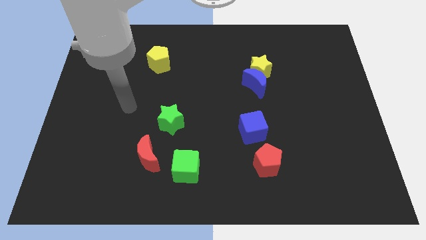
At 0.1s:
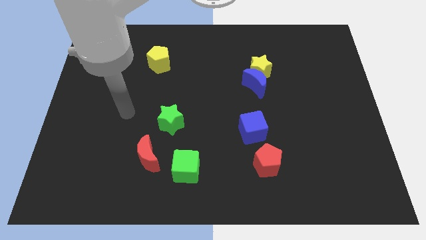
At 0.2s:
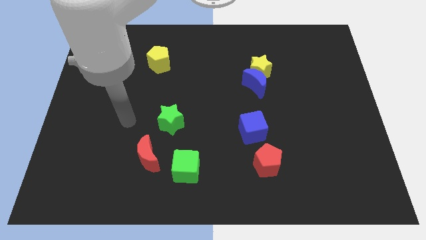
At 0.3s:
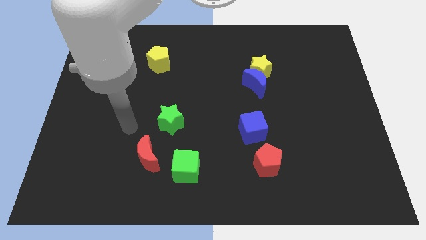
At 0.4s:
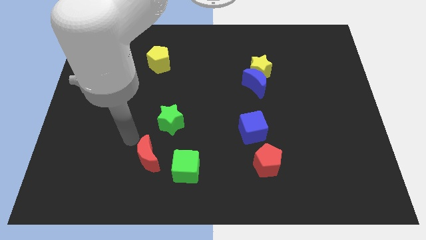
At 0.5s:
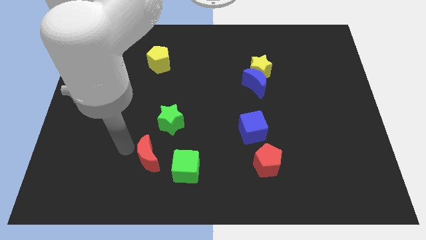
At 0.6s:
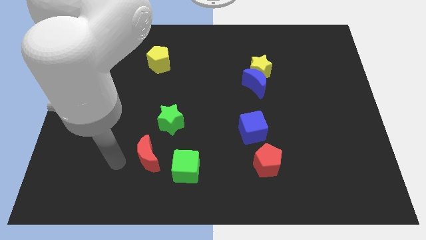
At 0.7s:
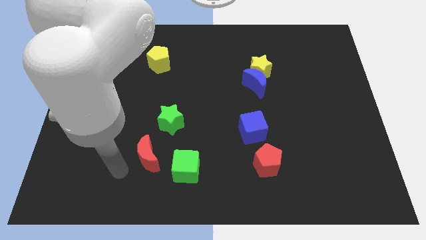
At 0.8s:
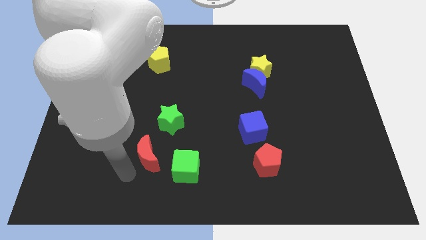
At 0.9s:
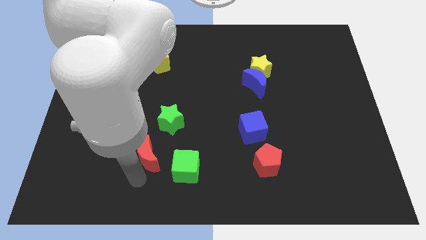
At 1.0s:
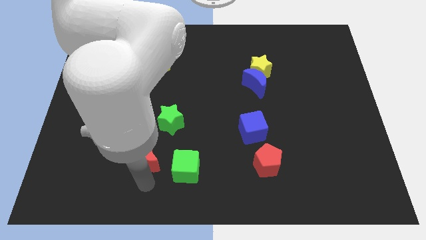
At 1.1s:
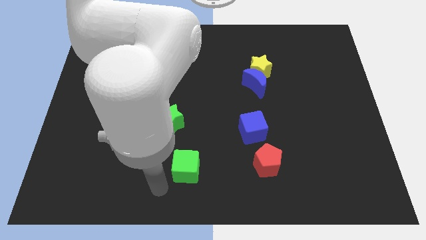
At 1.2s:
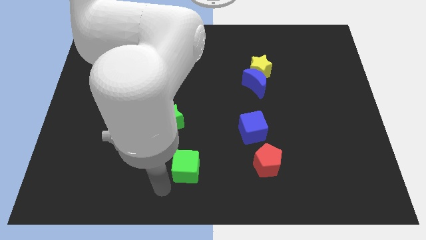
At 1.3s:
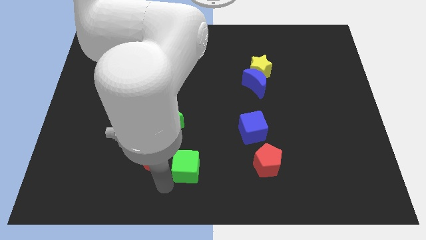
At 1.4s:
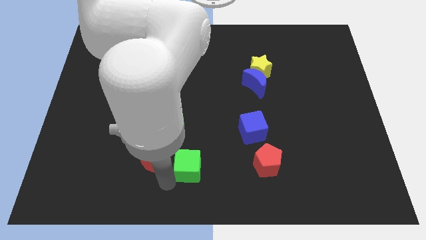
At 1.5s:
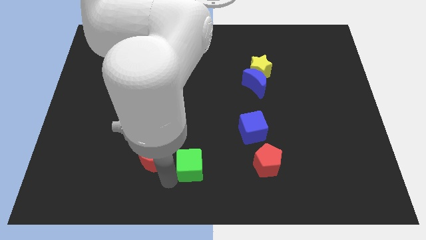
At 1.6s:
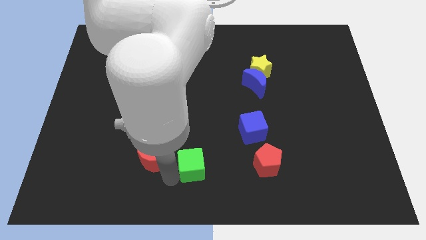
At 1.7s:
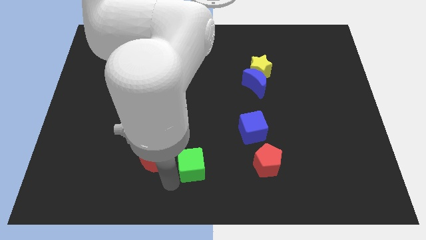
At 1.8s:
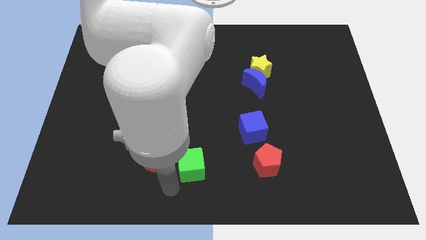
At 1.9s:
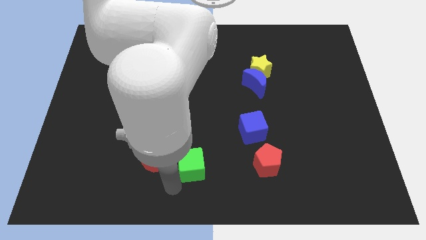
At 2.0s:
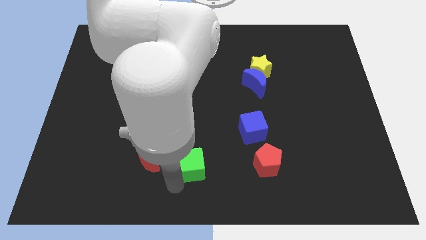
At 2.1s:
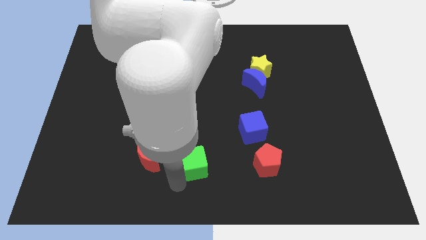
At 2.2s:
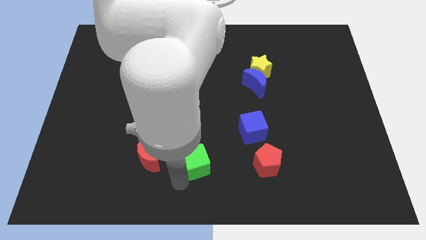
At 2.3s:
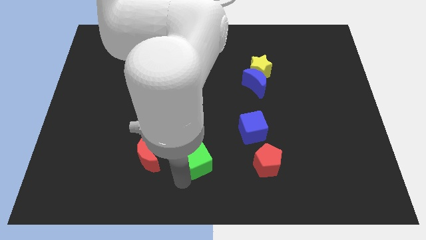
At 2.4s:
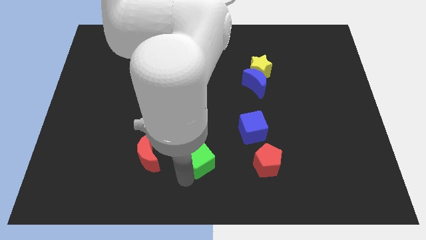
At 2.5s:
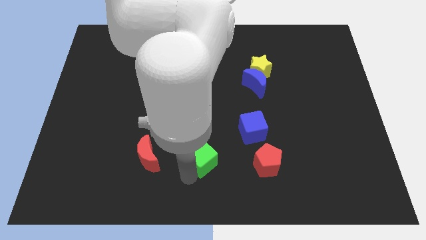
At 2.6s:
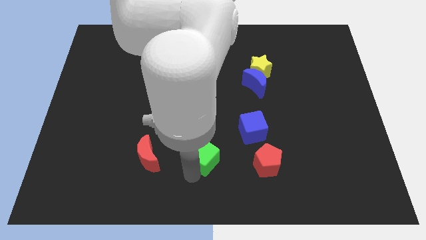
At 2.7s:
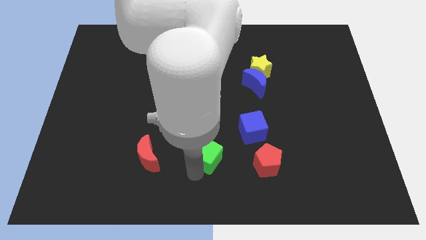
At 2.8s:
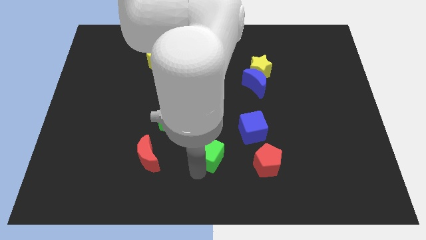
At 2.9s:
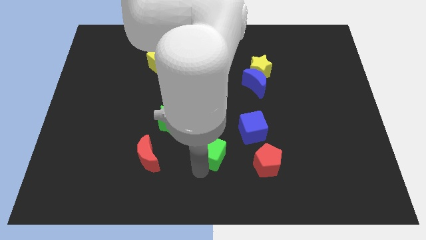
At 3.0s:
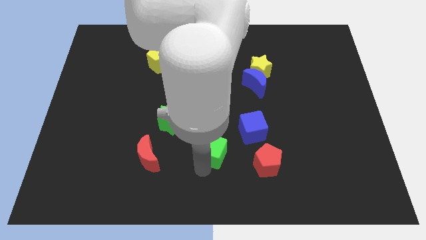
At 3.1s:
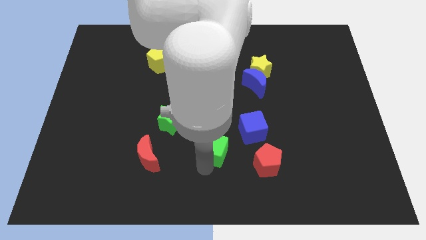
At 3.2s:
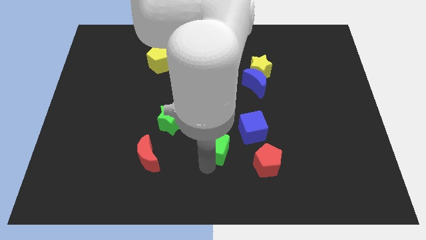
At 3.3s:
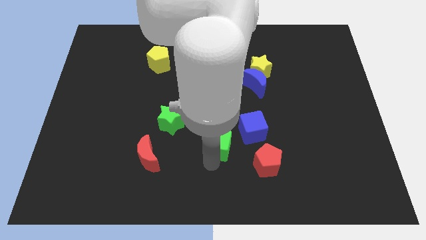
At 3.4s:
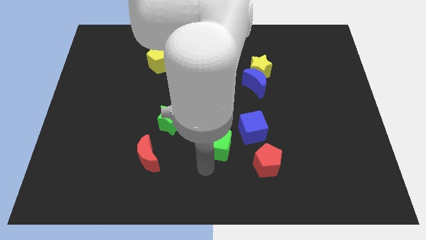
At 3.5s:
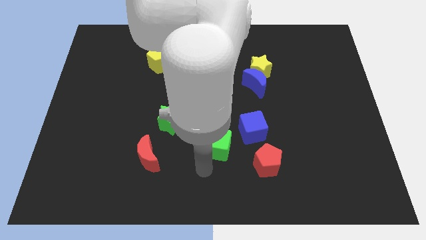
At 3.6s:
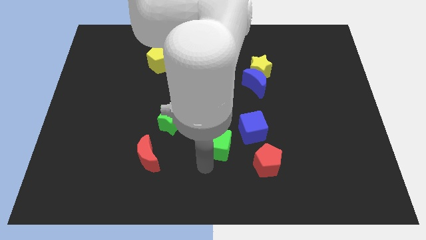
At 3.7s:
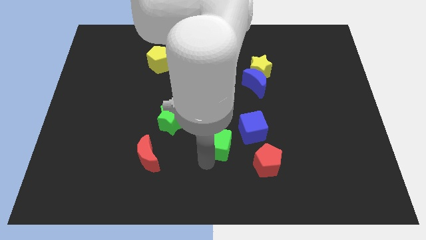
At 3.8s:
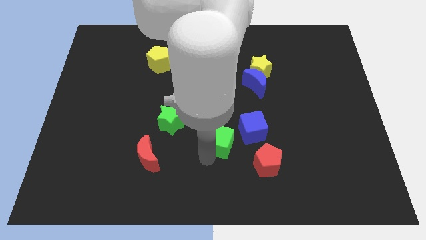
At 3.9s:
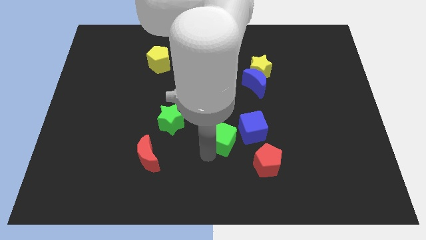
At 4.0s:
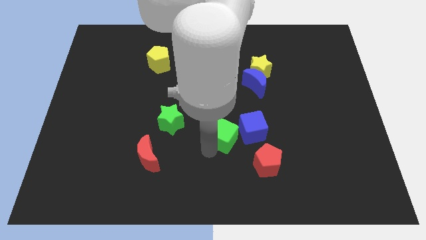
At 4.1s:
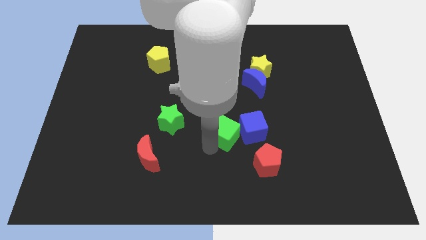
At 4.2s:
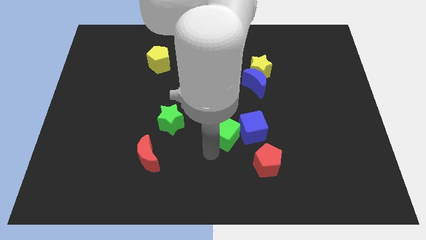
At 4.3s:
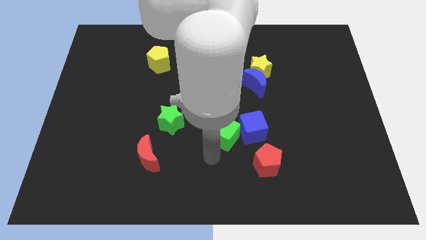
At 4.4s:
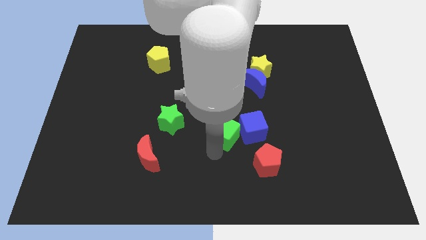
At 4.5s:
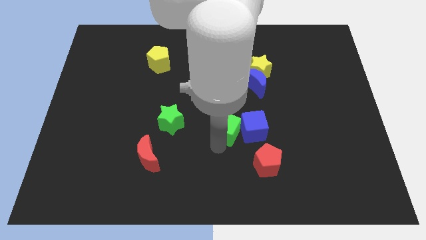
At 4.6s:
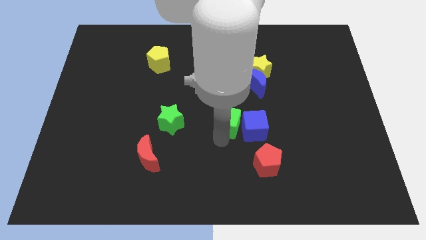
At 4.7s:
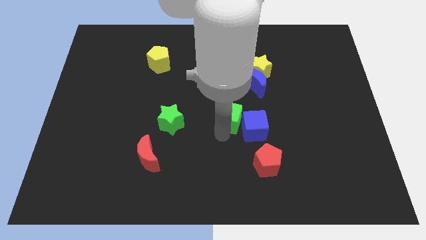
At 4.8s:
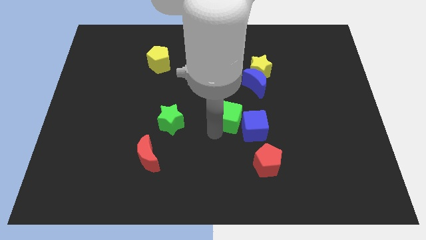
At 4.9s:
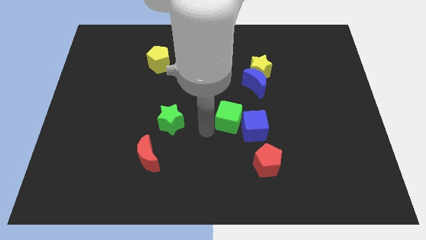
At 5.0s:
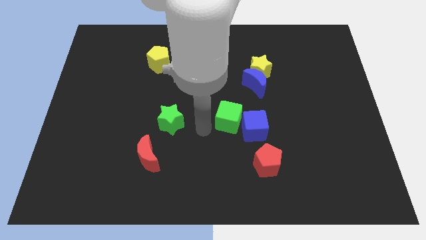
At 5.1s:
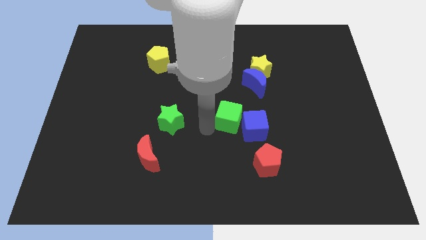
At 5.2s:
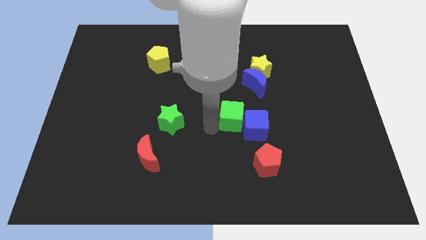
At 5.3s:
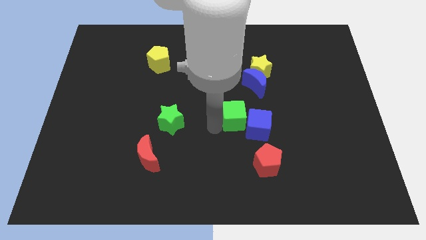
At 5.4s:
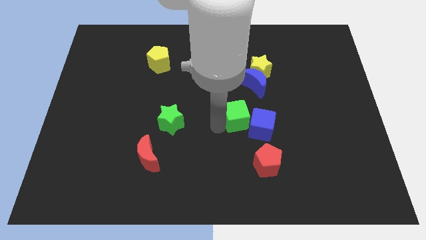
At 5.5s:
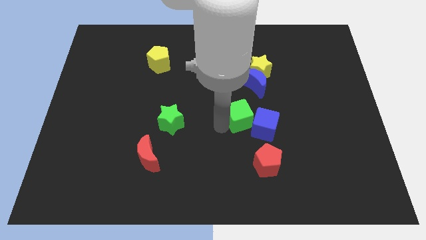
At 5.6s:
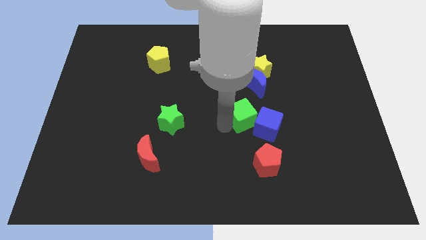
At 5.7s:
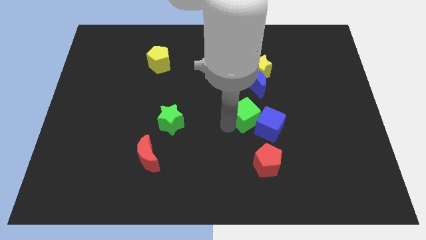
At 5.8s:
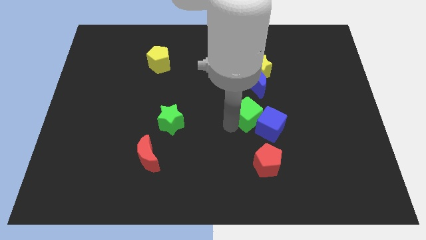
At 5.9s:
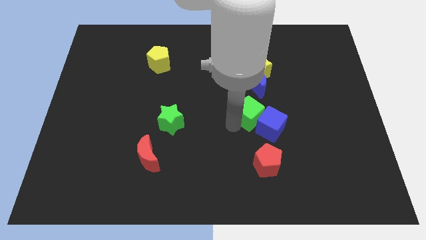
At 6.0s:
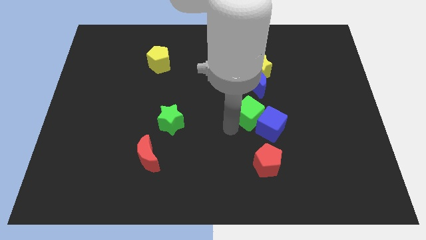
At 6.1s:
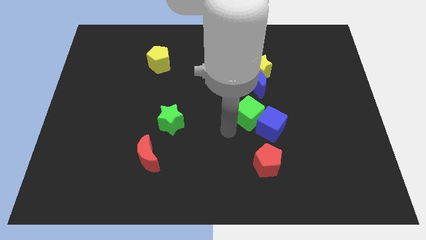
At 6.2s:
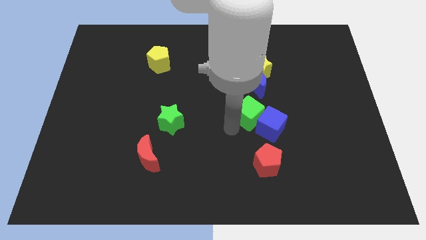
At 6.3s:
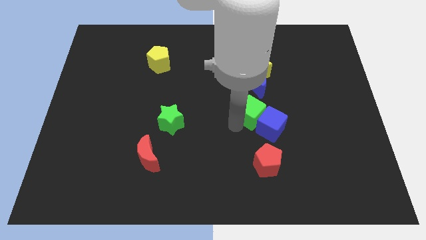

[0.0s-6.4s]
slide the green cube up and then to the right

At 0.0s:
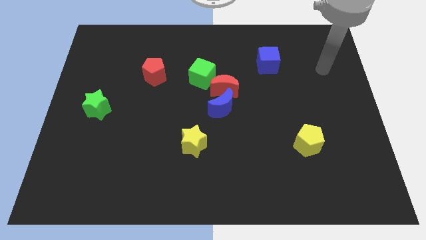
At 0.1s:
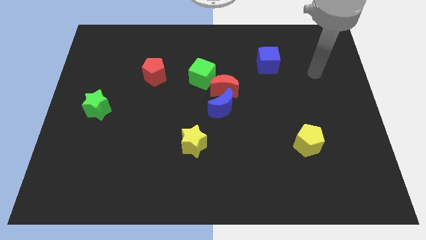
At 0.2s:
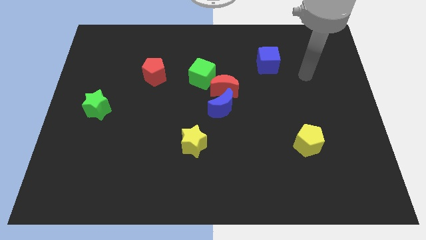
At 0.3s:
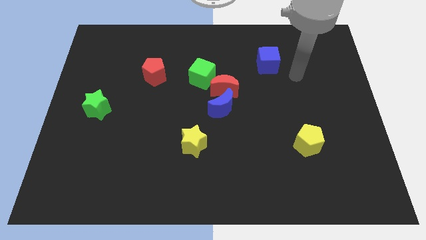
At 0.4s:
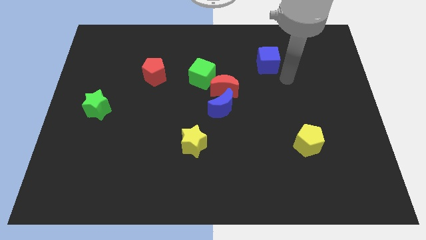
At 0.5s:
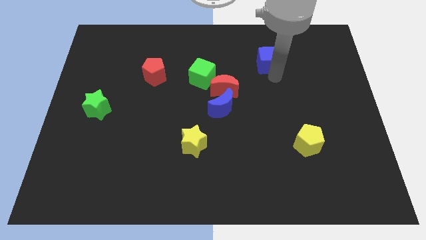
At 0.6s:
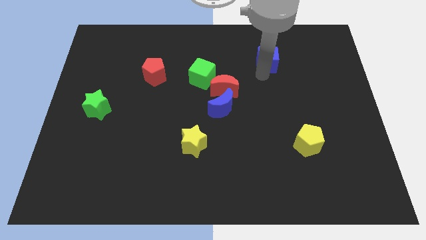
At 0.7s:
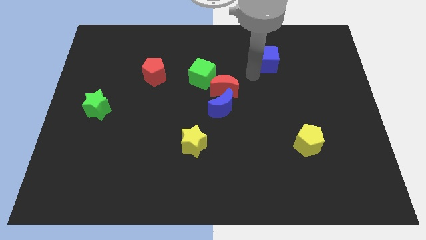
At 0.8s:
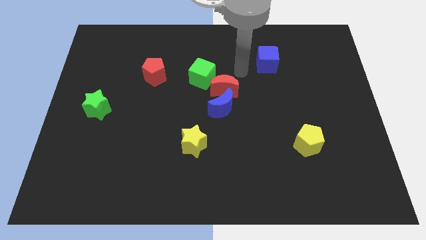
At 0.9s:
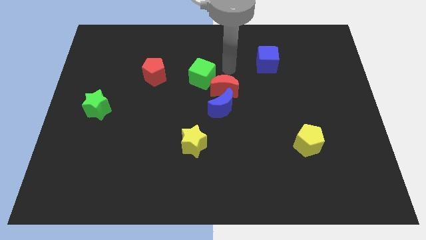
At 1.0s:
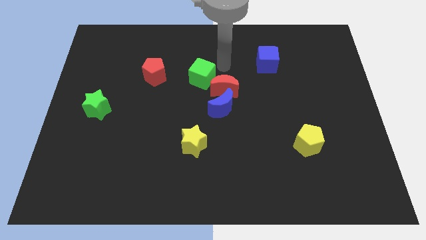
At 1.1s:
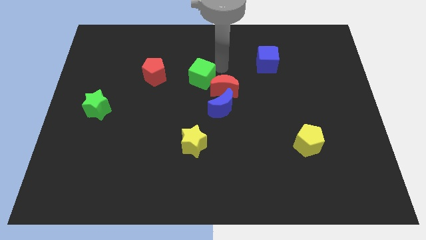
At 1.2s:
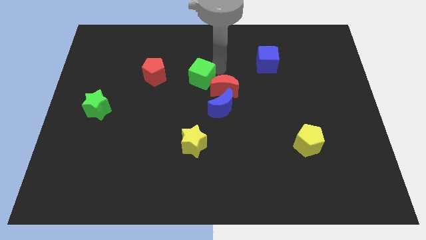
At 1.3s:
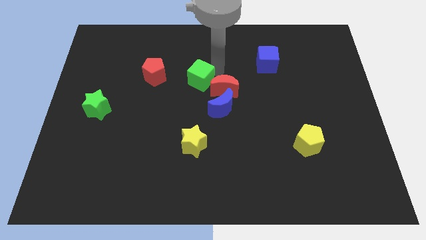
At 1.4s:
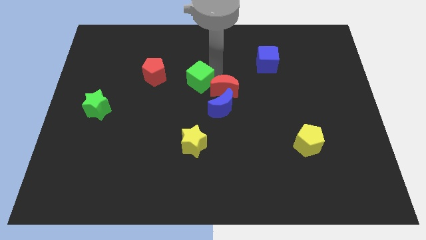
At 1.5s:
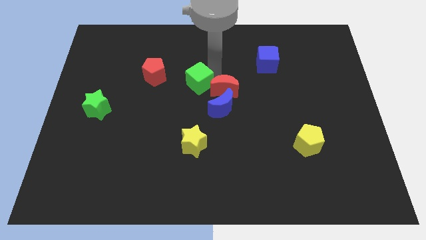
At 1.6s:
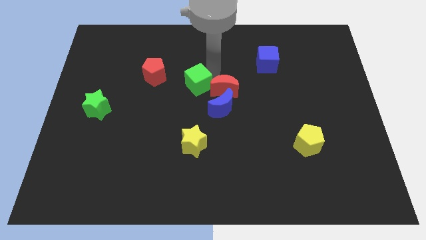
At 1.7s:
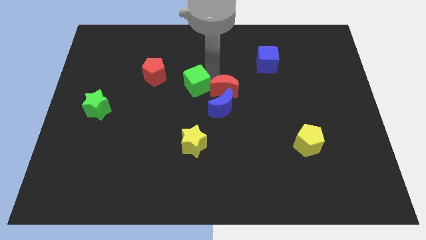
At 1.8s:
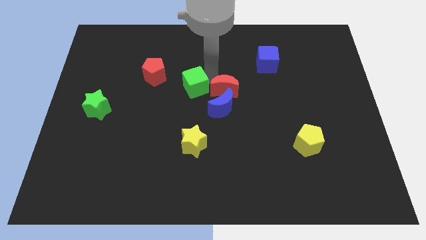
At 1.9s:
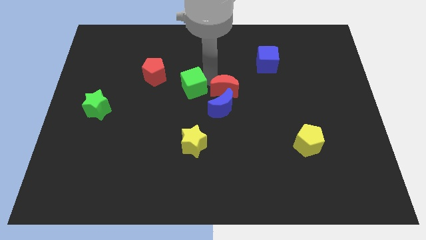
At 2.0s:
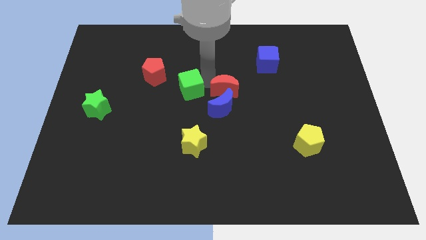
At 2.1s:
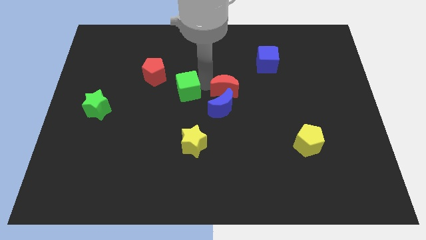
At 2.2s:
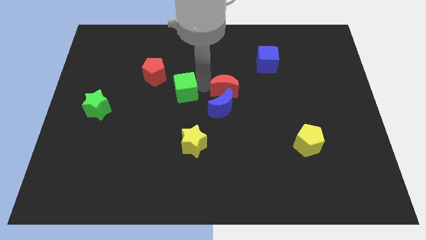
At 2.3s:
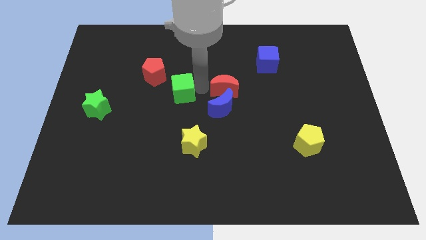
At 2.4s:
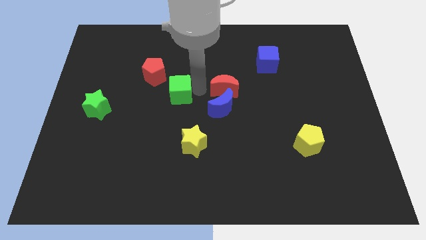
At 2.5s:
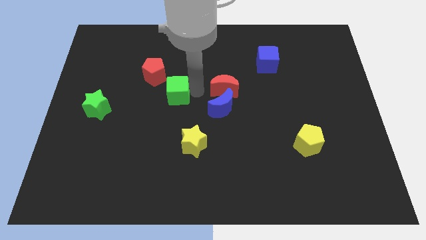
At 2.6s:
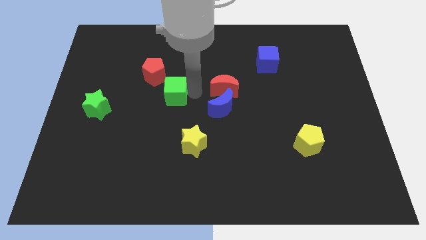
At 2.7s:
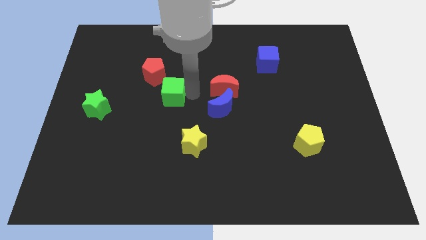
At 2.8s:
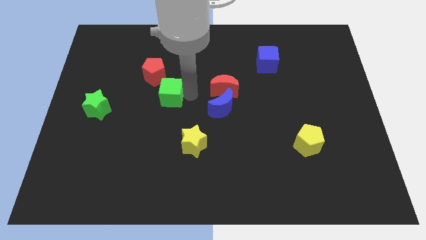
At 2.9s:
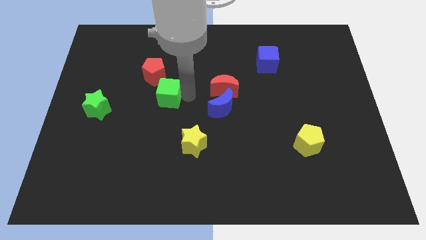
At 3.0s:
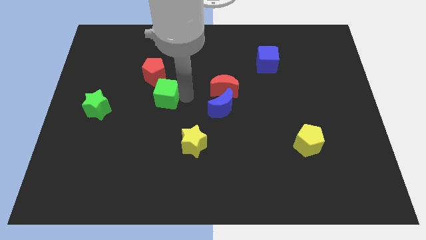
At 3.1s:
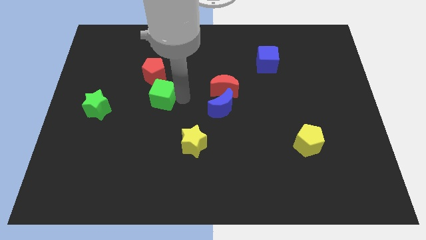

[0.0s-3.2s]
slightly push the green cube left
